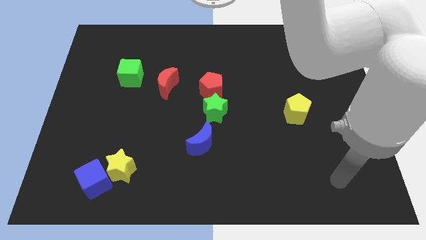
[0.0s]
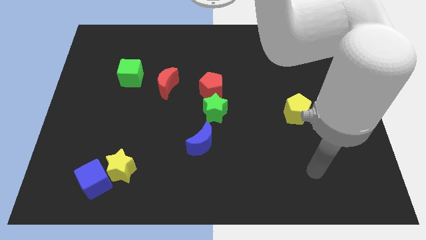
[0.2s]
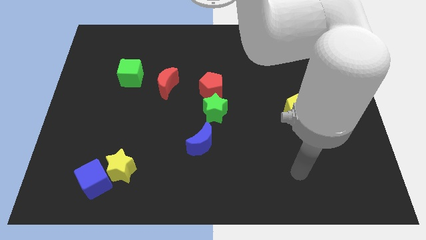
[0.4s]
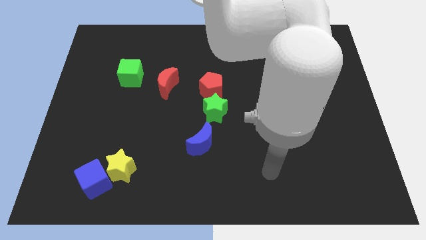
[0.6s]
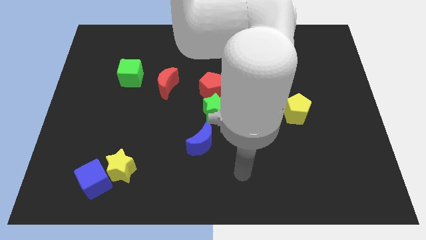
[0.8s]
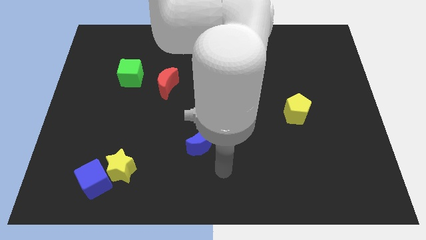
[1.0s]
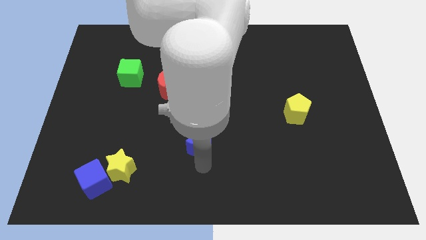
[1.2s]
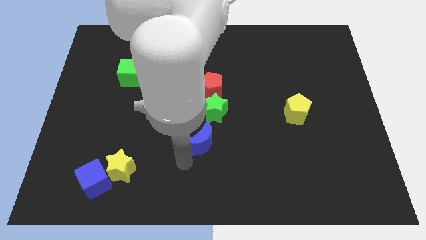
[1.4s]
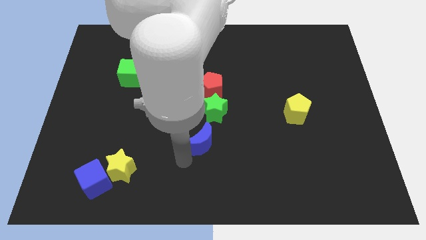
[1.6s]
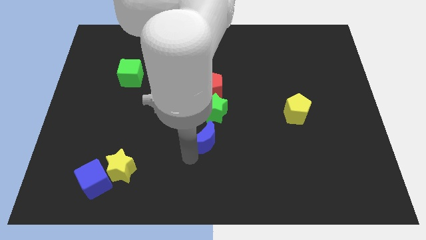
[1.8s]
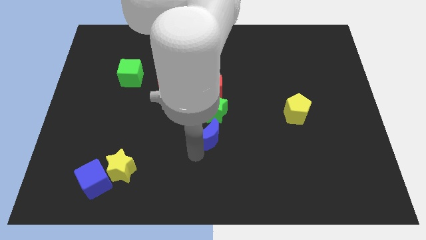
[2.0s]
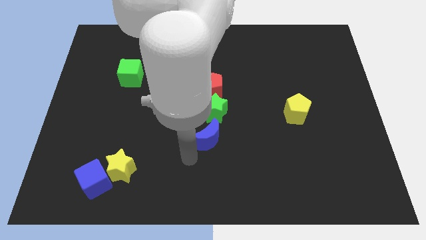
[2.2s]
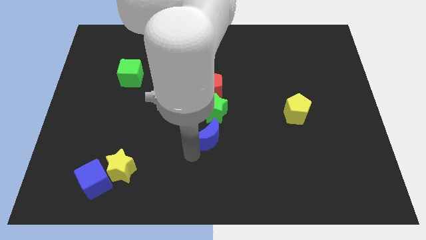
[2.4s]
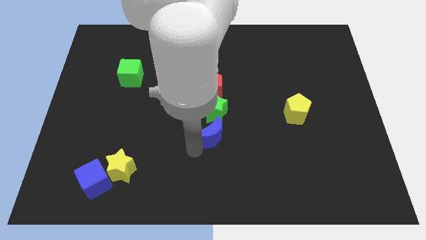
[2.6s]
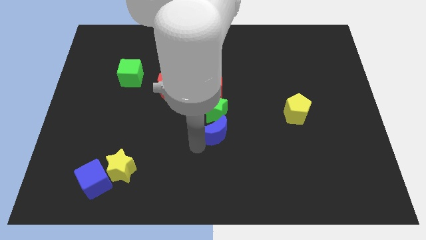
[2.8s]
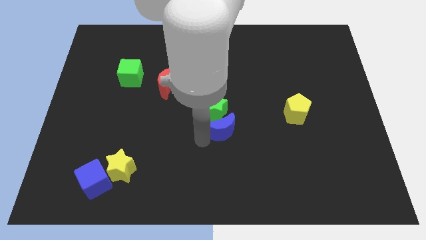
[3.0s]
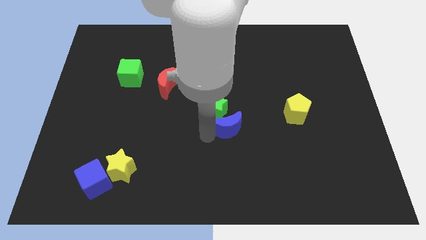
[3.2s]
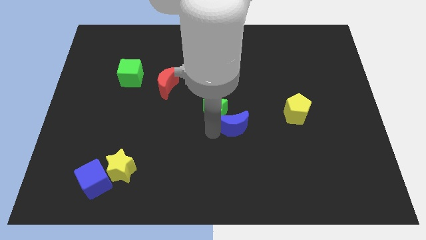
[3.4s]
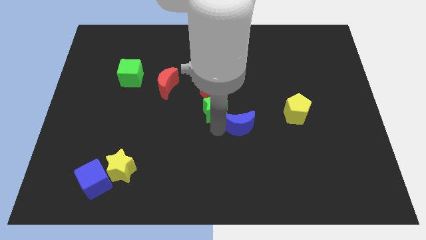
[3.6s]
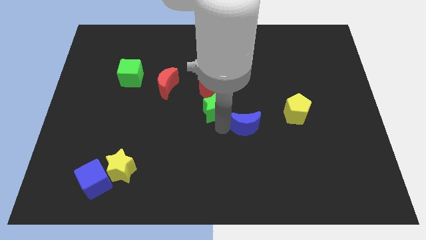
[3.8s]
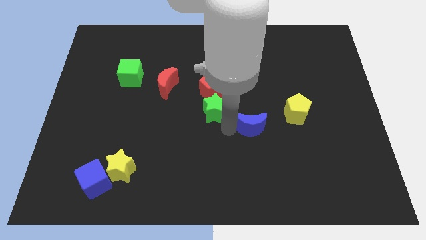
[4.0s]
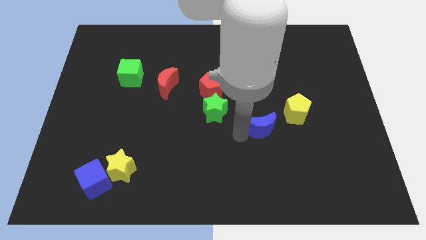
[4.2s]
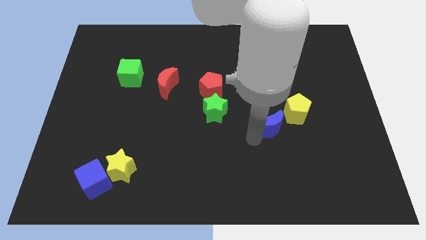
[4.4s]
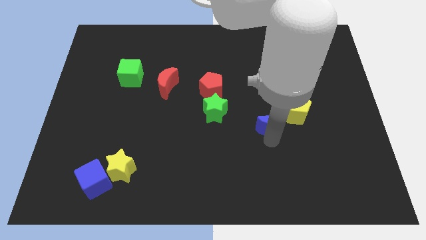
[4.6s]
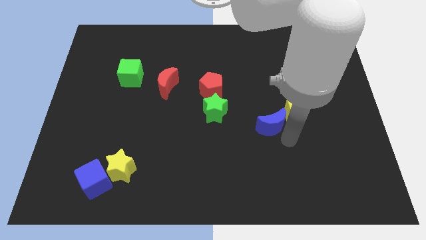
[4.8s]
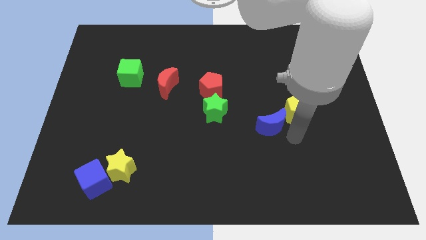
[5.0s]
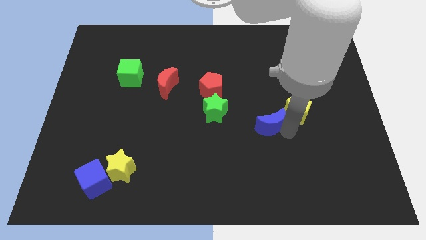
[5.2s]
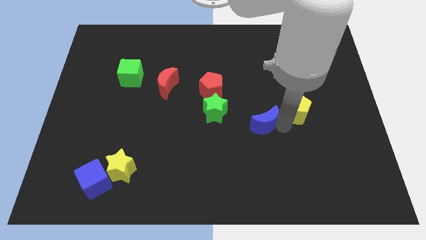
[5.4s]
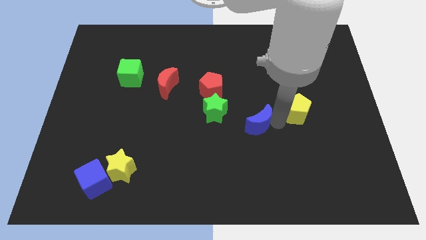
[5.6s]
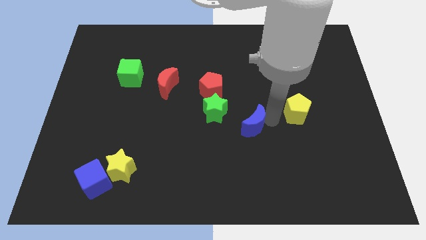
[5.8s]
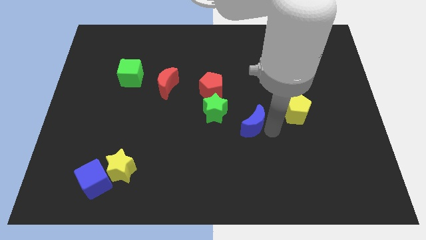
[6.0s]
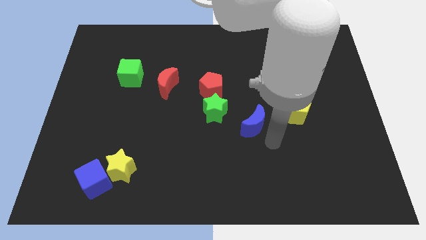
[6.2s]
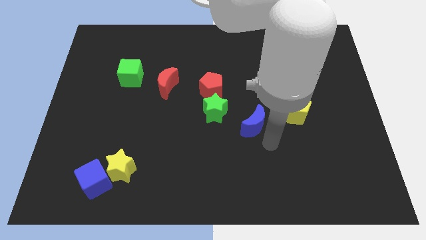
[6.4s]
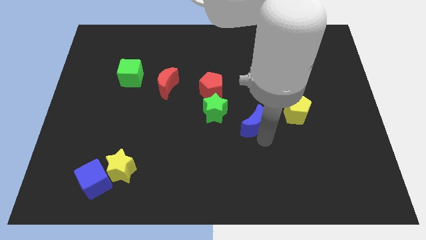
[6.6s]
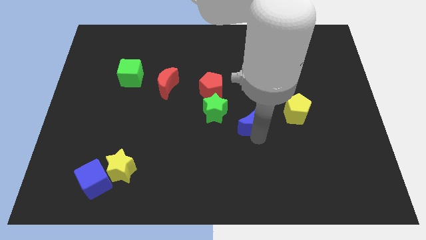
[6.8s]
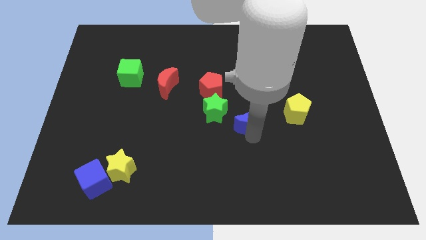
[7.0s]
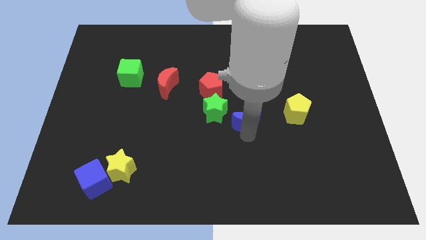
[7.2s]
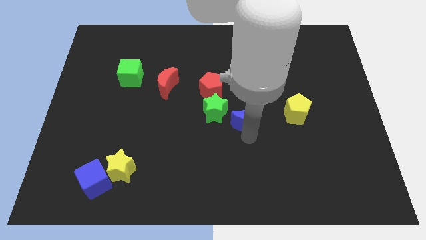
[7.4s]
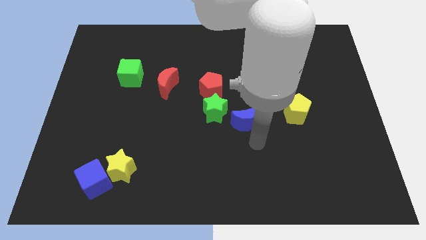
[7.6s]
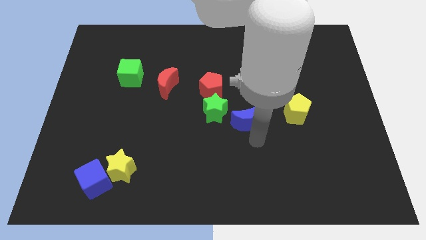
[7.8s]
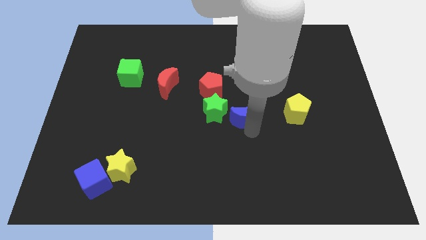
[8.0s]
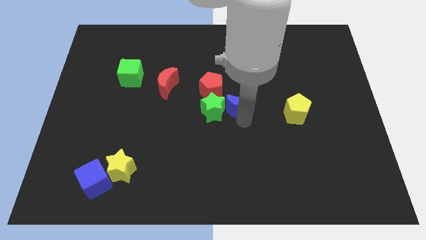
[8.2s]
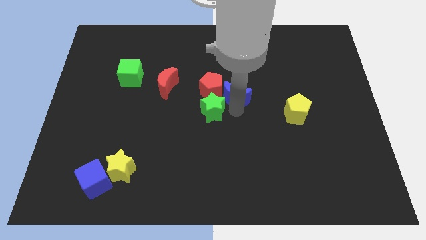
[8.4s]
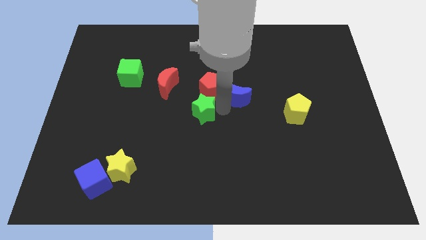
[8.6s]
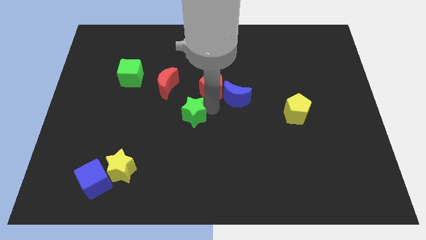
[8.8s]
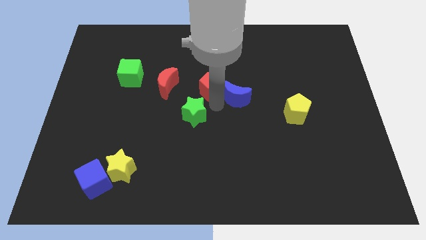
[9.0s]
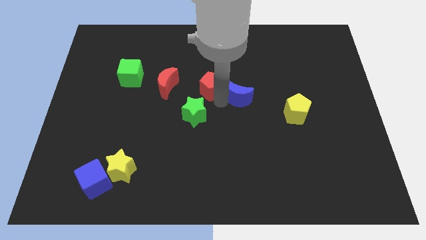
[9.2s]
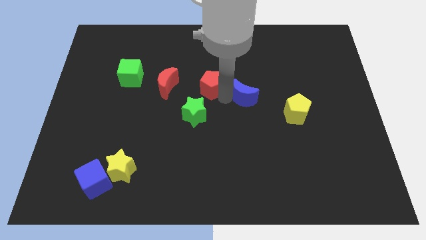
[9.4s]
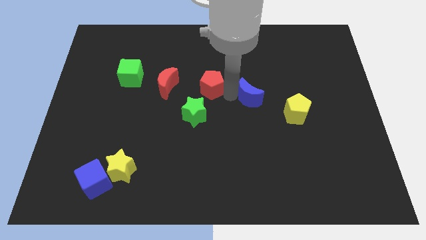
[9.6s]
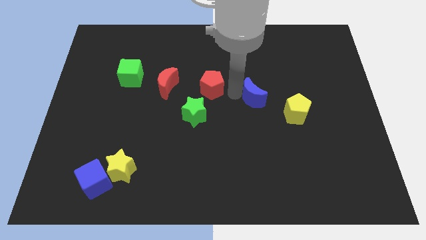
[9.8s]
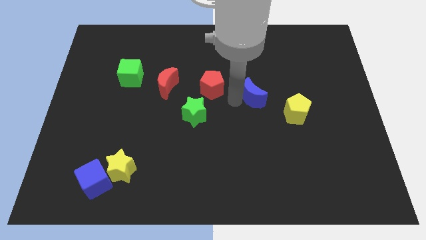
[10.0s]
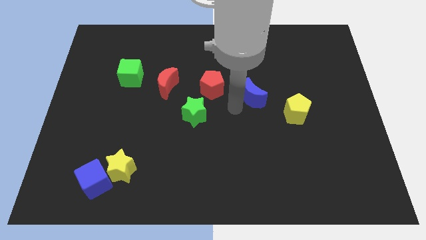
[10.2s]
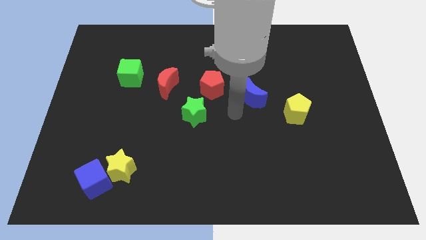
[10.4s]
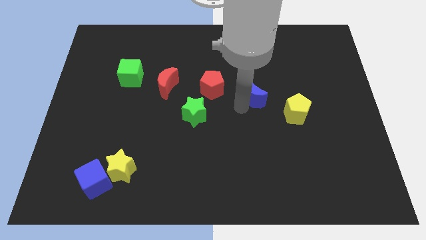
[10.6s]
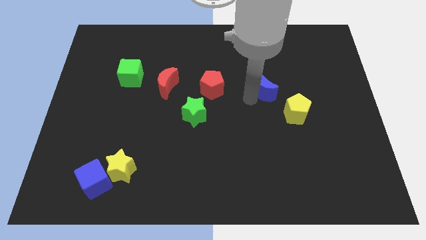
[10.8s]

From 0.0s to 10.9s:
slide the blue moon upwards and to the right

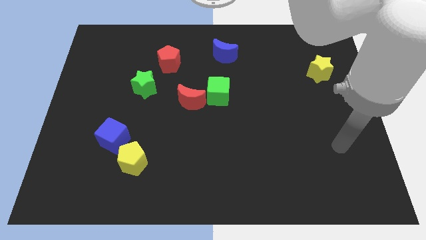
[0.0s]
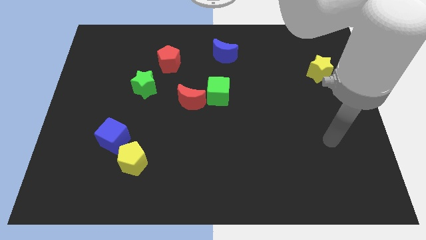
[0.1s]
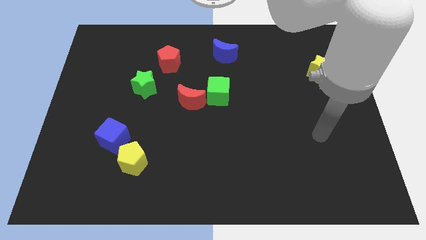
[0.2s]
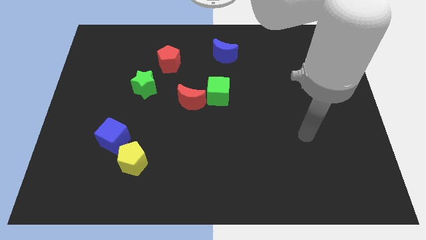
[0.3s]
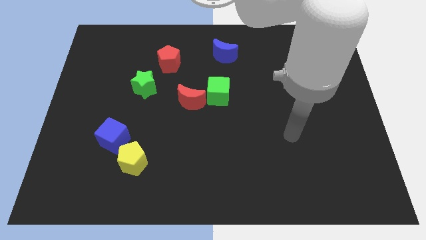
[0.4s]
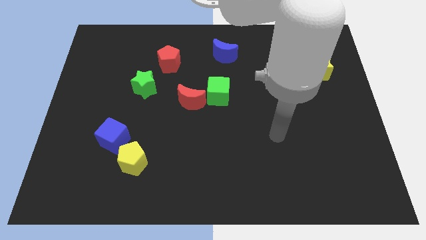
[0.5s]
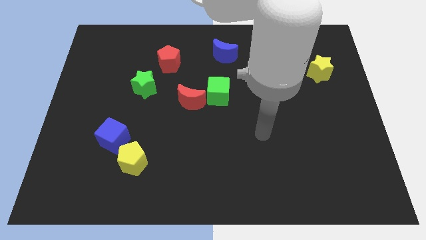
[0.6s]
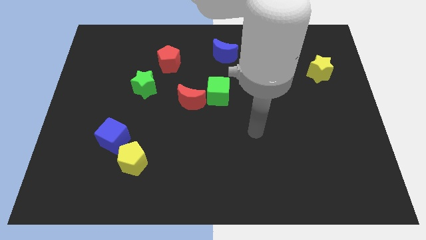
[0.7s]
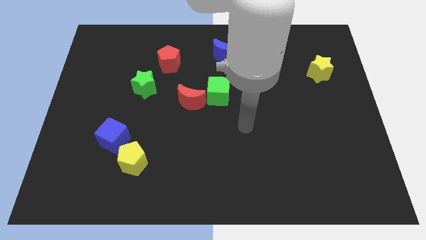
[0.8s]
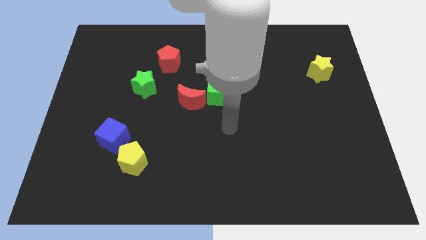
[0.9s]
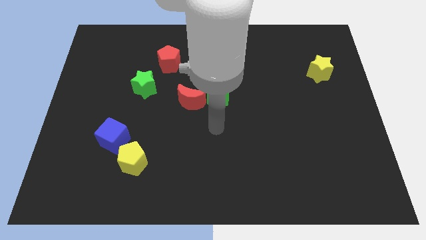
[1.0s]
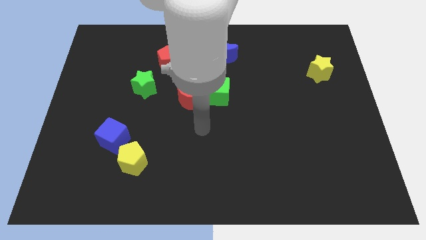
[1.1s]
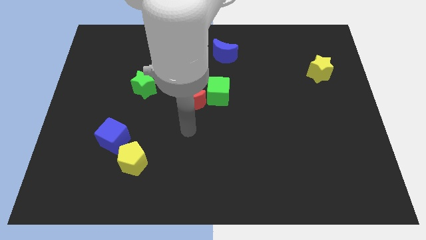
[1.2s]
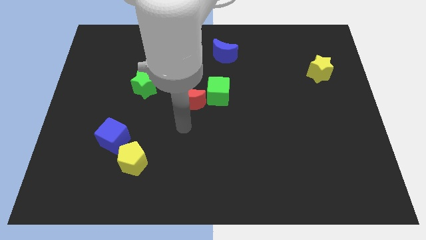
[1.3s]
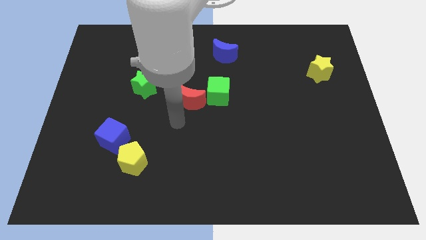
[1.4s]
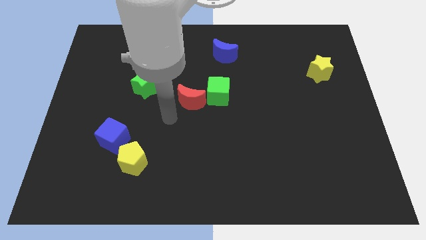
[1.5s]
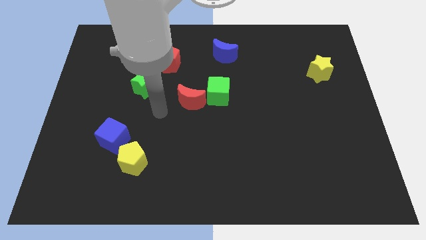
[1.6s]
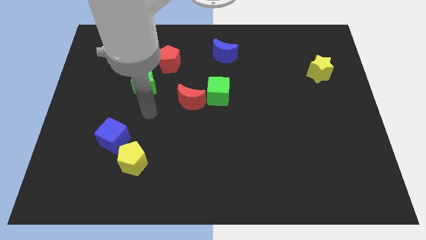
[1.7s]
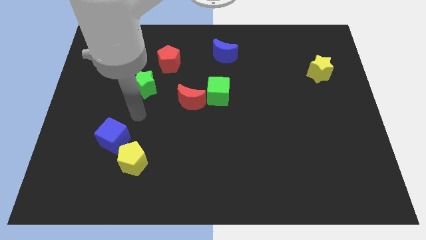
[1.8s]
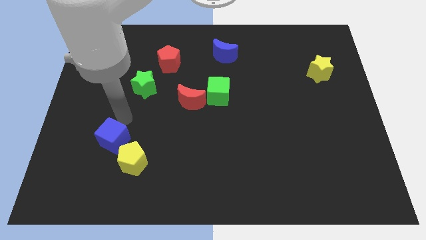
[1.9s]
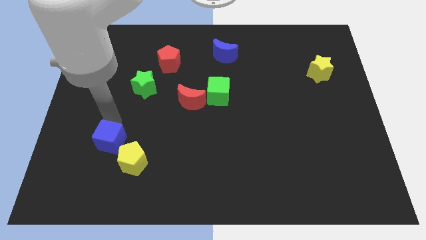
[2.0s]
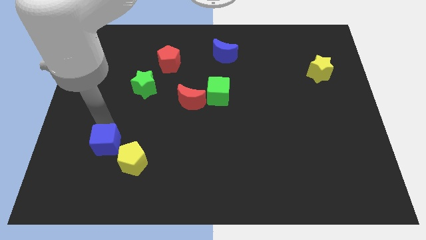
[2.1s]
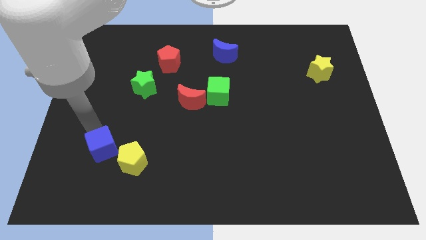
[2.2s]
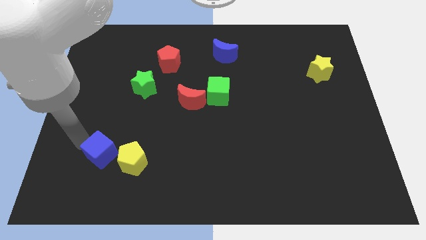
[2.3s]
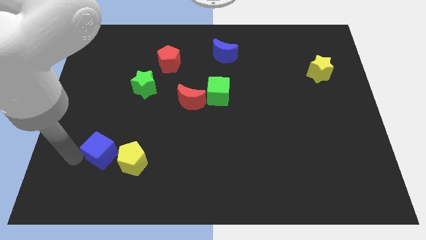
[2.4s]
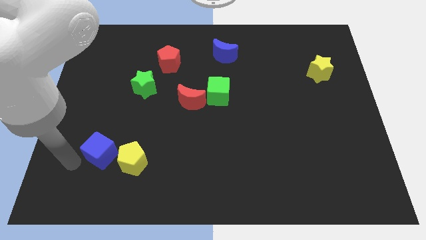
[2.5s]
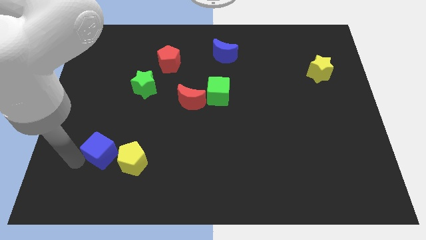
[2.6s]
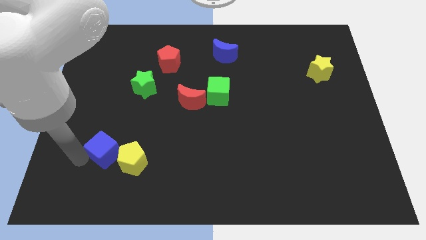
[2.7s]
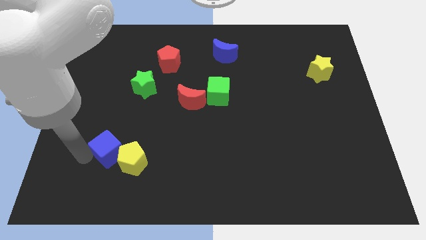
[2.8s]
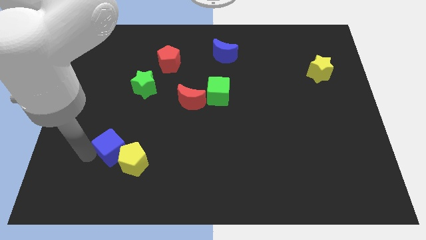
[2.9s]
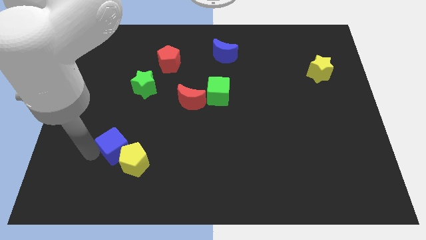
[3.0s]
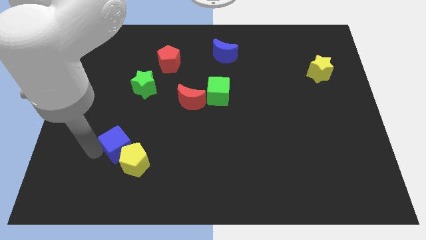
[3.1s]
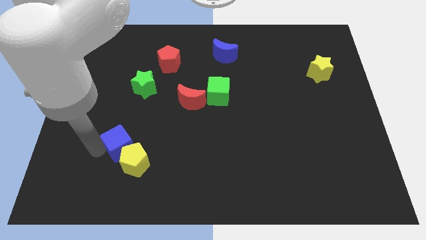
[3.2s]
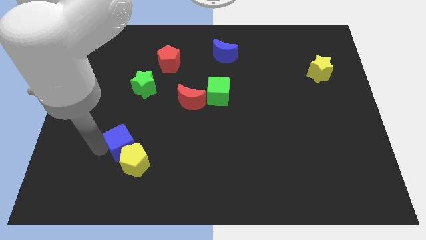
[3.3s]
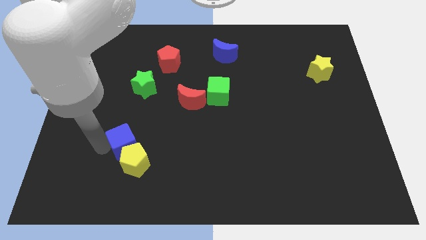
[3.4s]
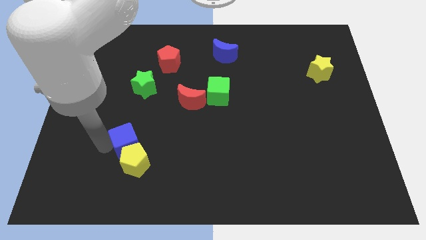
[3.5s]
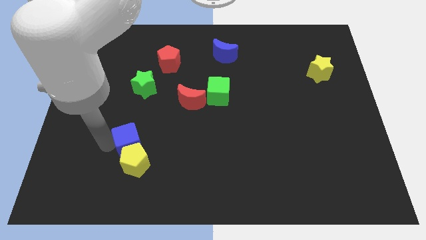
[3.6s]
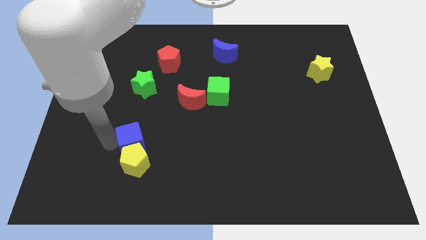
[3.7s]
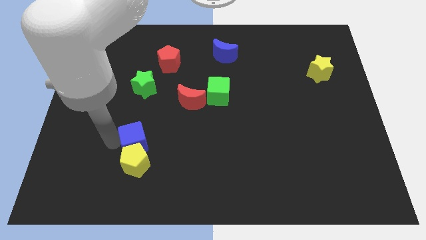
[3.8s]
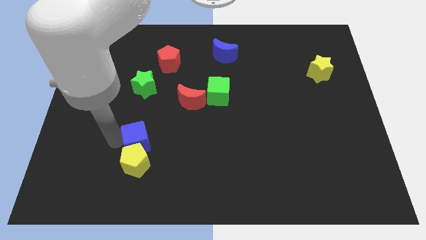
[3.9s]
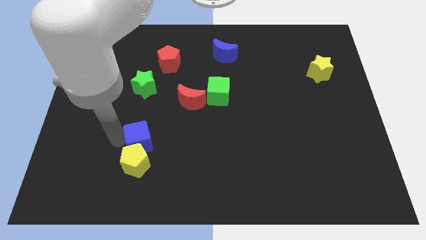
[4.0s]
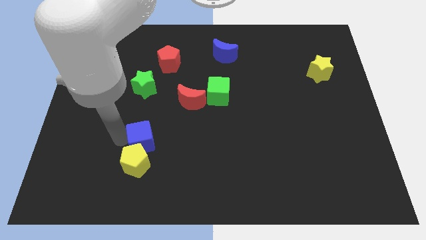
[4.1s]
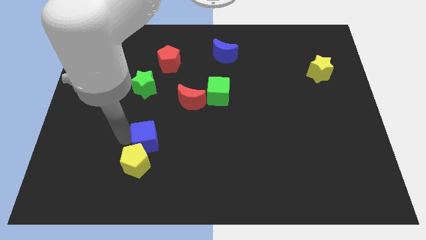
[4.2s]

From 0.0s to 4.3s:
slightly move the blue cube right
